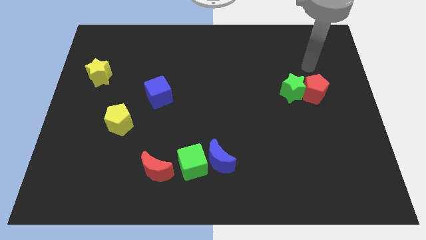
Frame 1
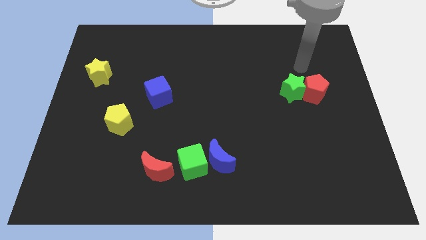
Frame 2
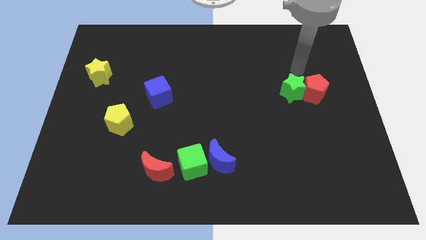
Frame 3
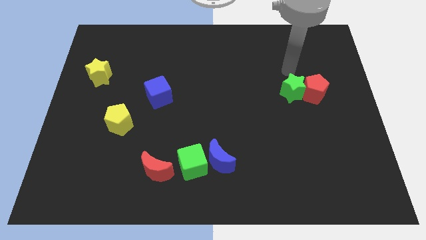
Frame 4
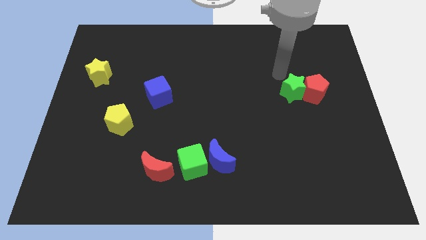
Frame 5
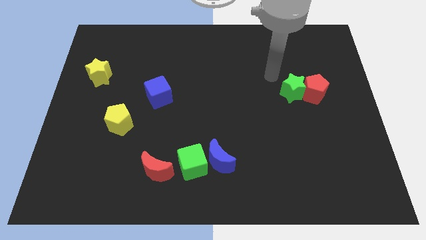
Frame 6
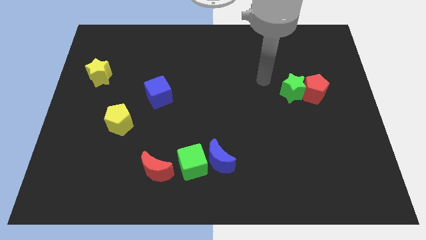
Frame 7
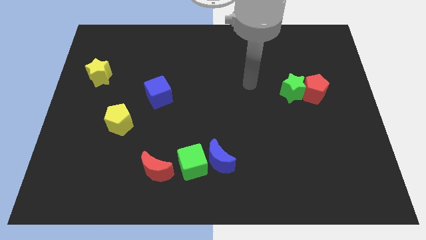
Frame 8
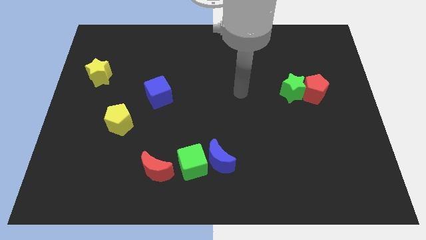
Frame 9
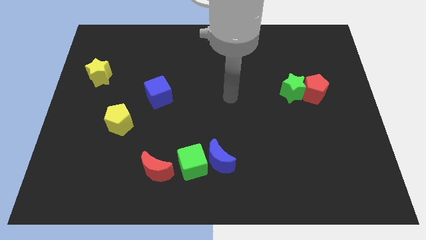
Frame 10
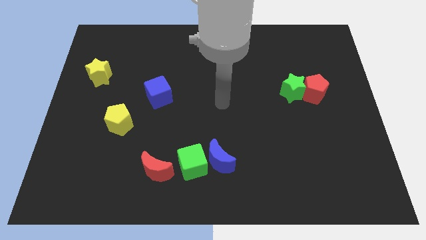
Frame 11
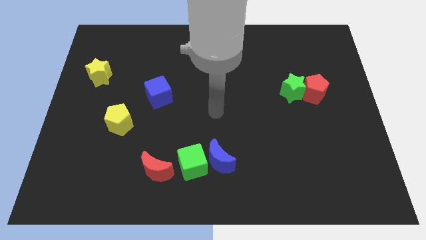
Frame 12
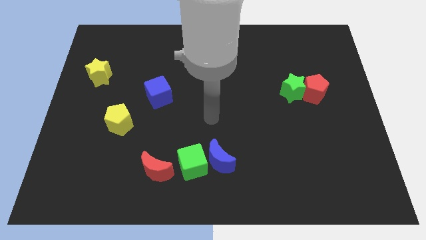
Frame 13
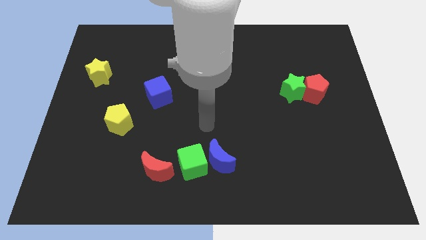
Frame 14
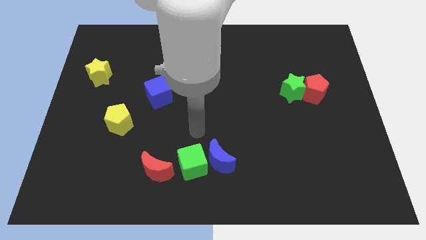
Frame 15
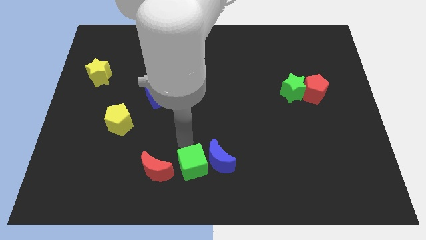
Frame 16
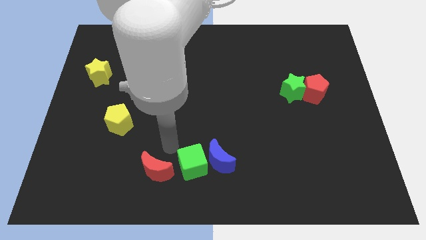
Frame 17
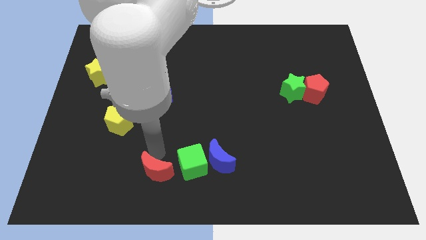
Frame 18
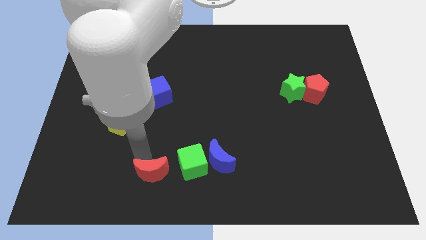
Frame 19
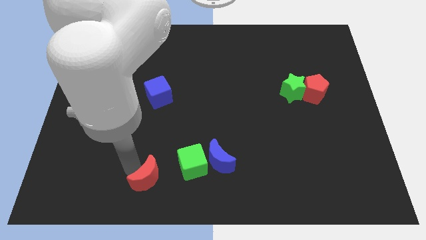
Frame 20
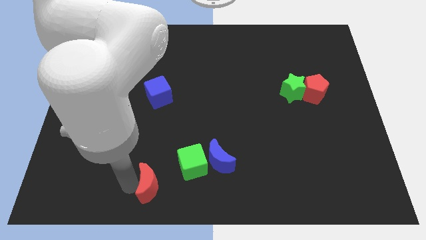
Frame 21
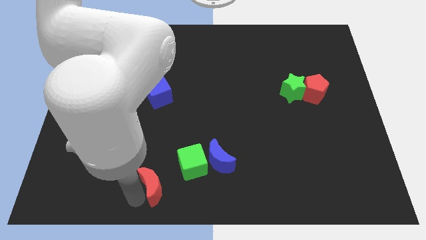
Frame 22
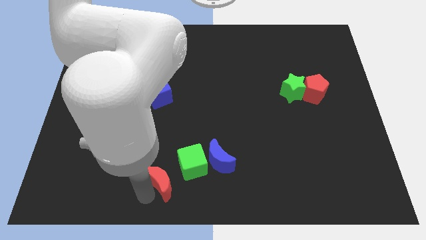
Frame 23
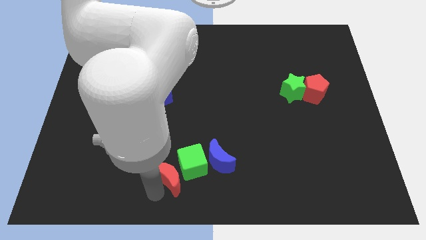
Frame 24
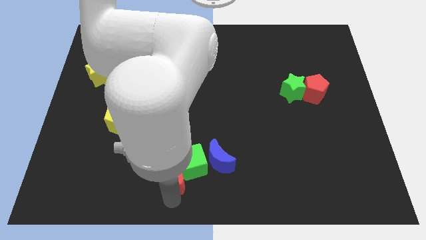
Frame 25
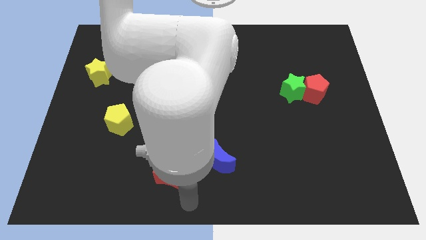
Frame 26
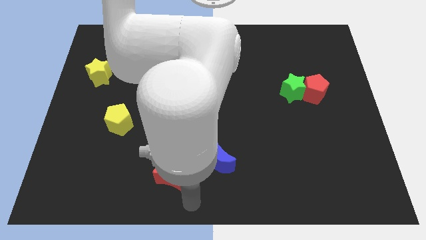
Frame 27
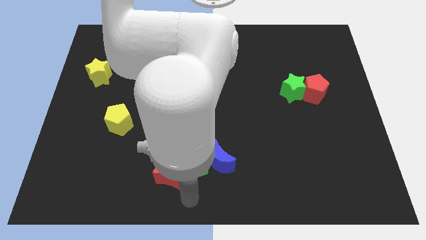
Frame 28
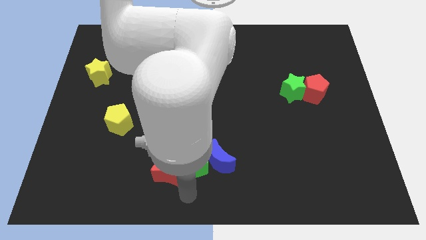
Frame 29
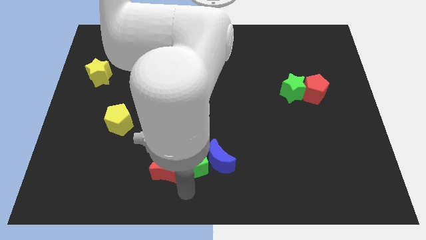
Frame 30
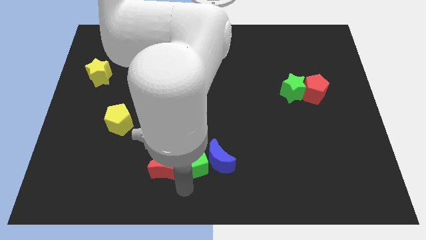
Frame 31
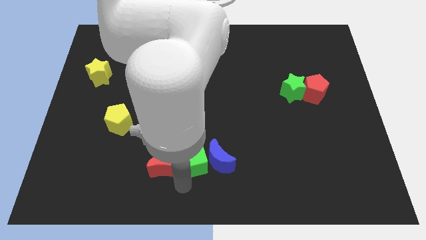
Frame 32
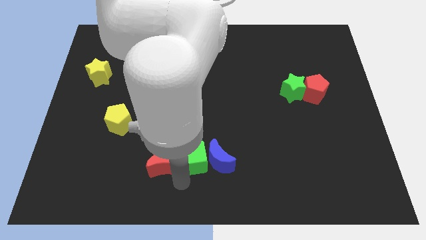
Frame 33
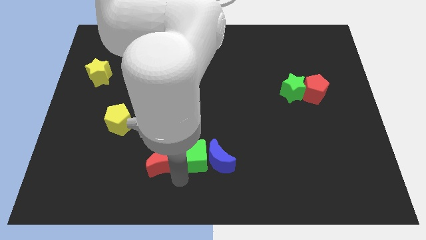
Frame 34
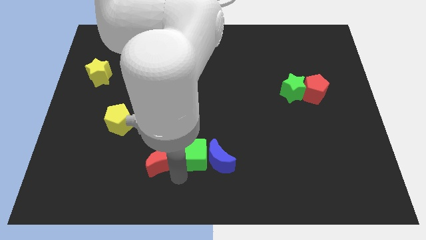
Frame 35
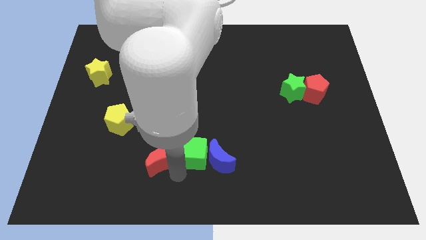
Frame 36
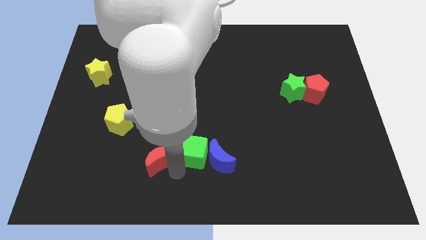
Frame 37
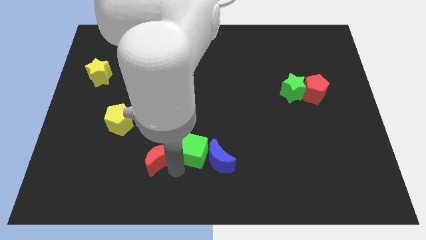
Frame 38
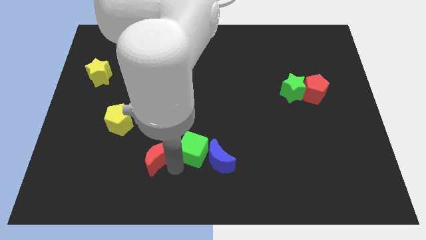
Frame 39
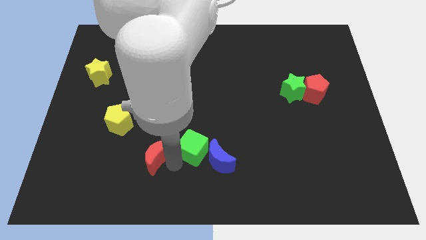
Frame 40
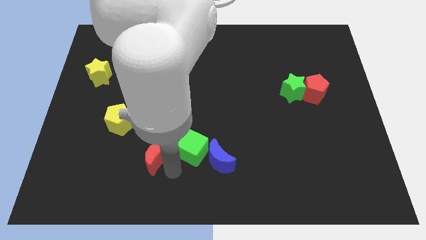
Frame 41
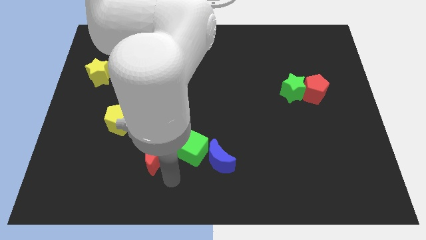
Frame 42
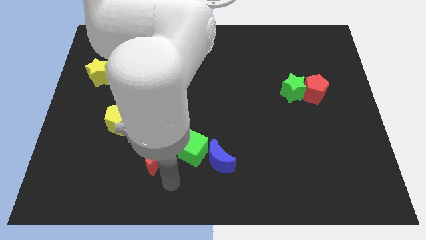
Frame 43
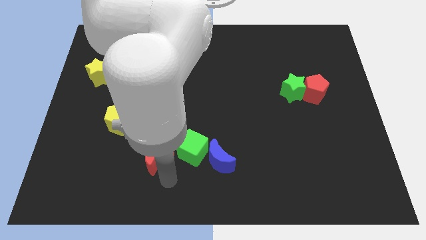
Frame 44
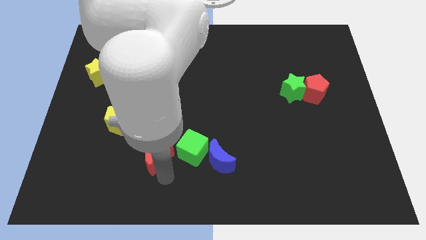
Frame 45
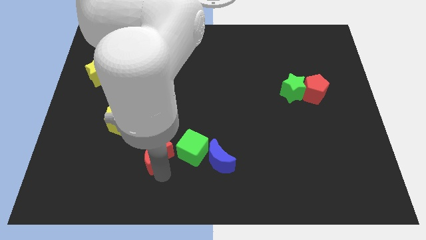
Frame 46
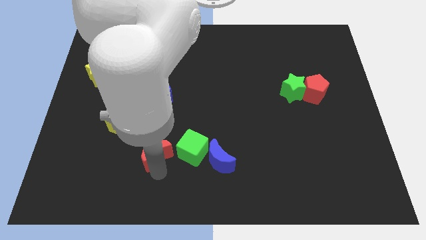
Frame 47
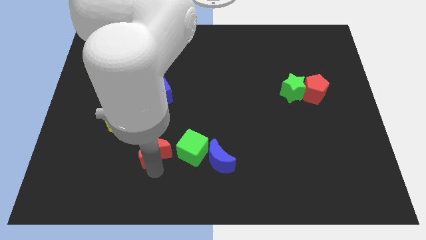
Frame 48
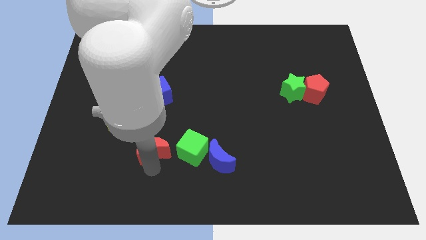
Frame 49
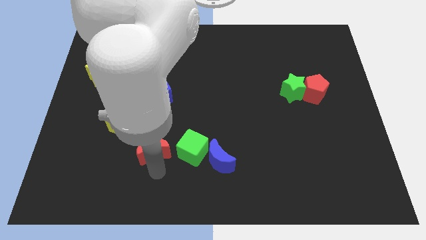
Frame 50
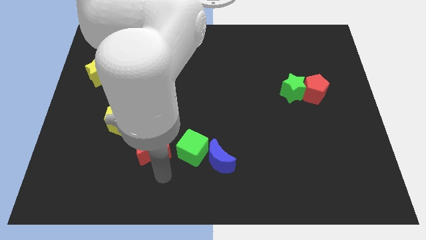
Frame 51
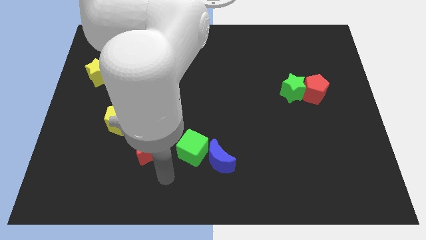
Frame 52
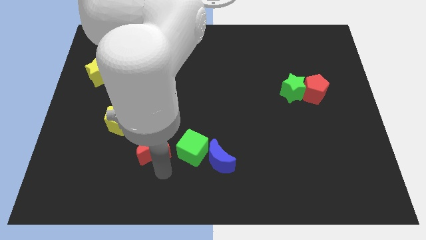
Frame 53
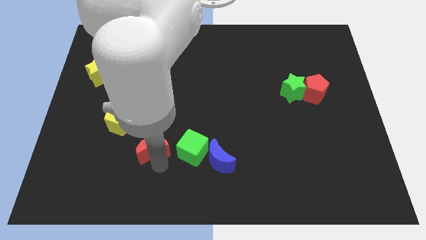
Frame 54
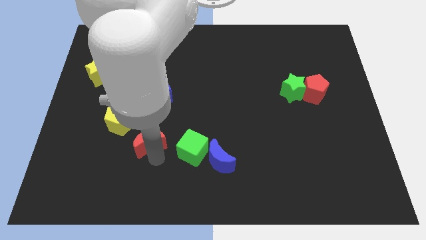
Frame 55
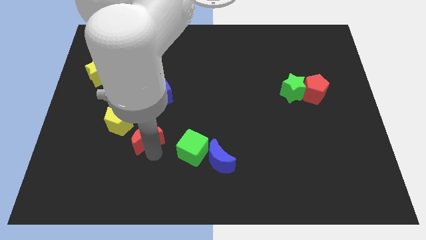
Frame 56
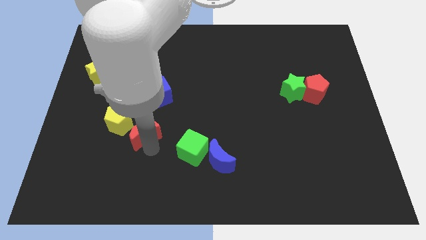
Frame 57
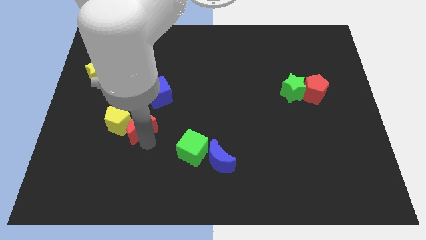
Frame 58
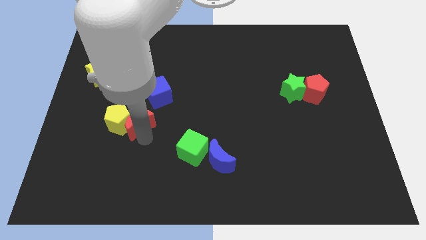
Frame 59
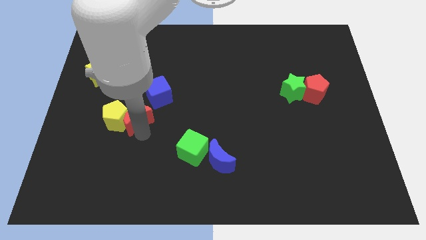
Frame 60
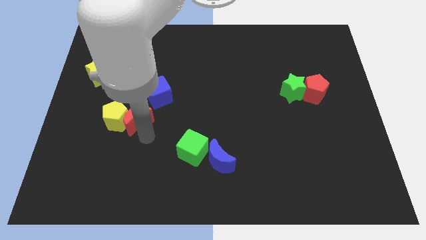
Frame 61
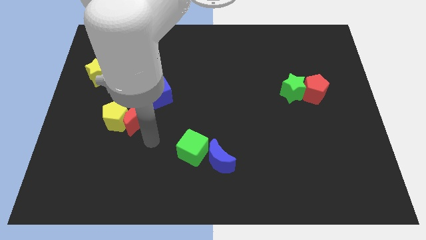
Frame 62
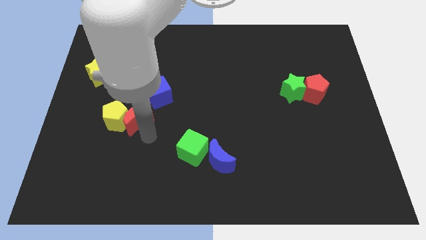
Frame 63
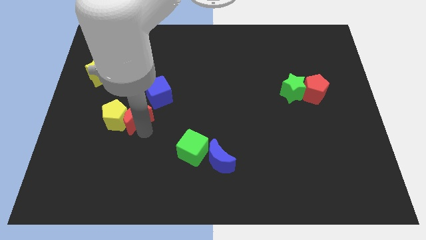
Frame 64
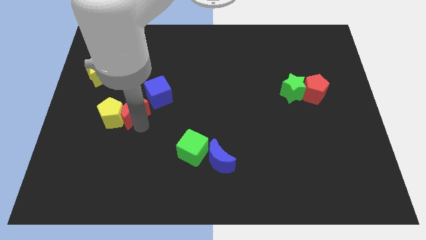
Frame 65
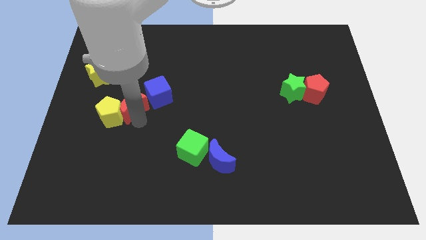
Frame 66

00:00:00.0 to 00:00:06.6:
push the red moon to the left of the blue cube
